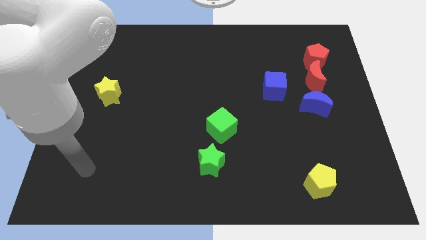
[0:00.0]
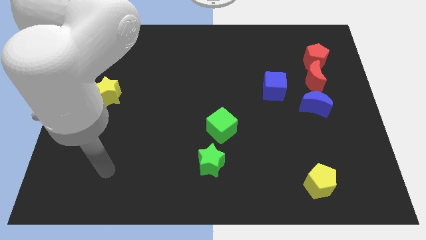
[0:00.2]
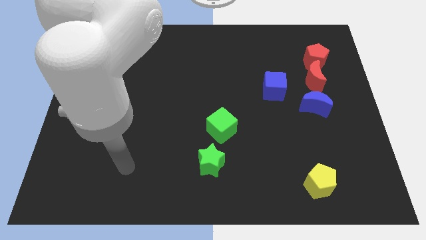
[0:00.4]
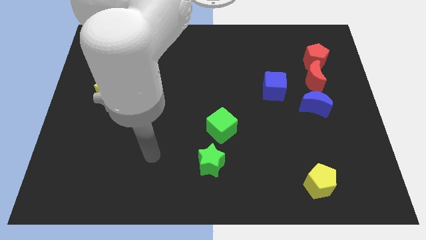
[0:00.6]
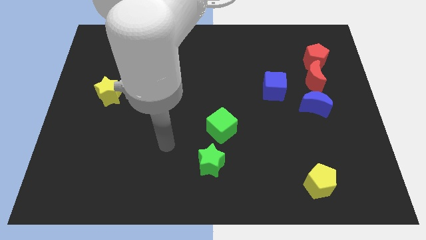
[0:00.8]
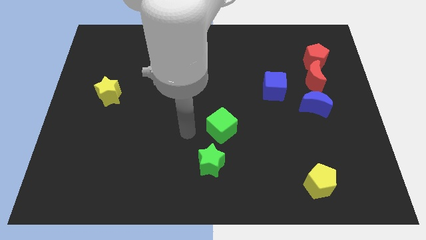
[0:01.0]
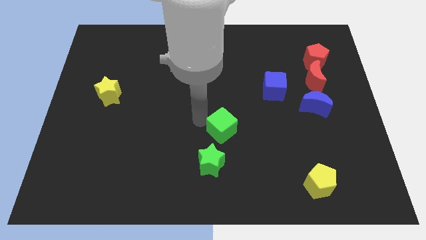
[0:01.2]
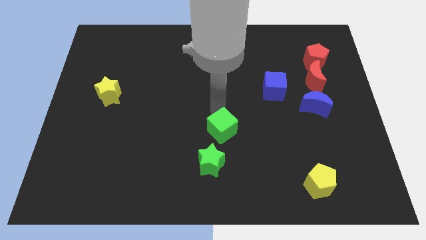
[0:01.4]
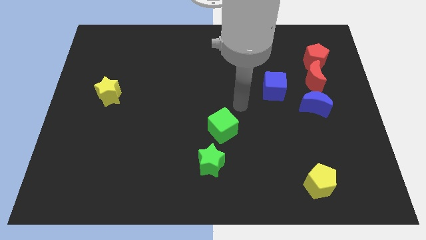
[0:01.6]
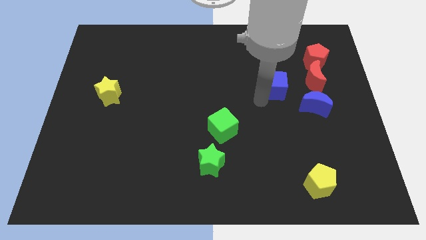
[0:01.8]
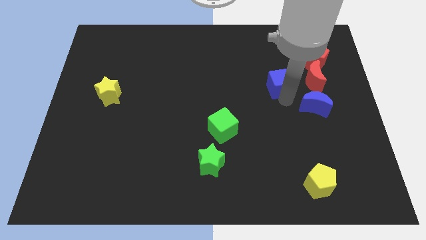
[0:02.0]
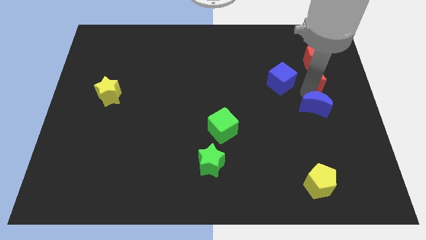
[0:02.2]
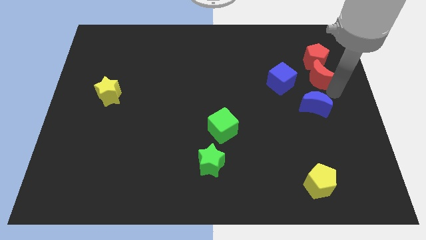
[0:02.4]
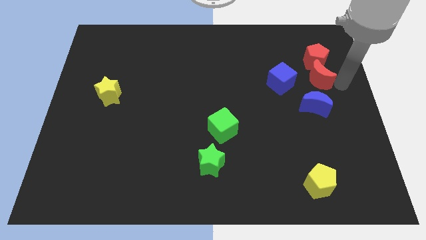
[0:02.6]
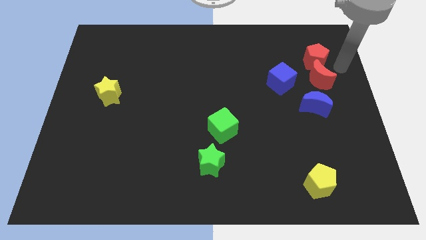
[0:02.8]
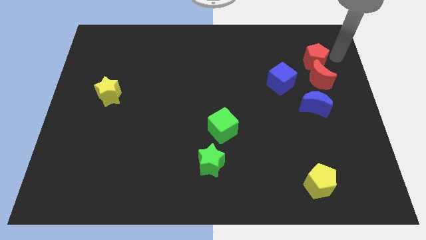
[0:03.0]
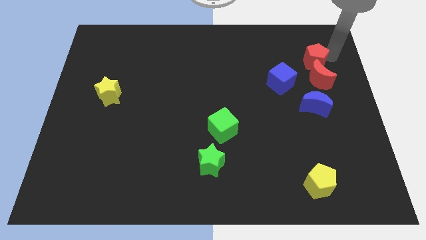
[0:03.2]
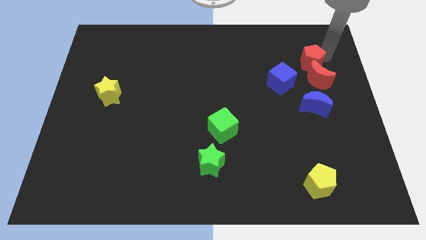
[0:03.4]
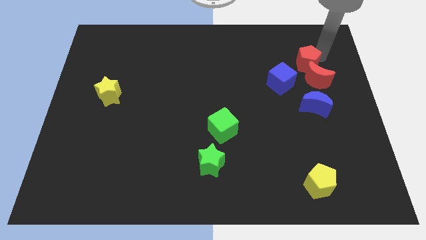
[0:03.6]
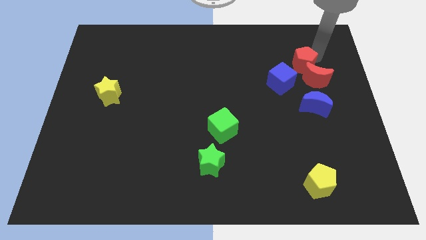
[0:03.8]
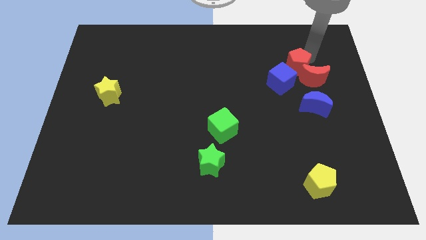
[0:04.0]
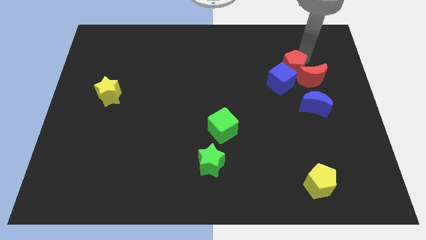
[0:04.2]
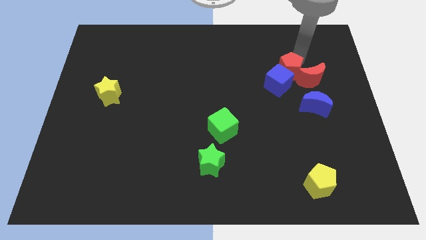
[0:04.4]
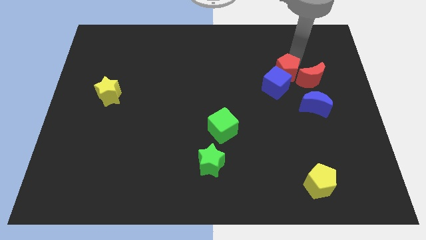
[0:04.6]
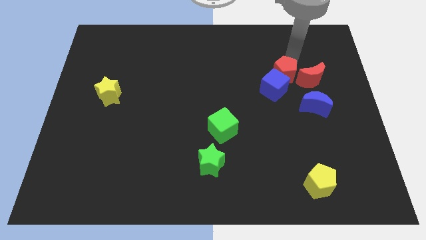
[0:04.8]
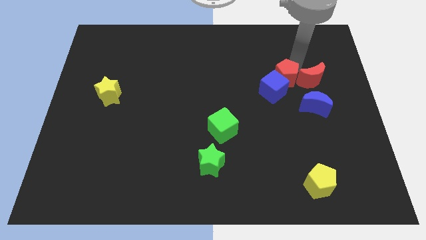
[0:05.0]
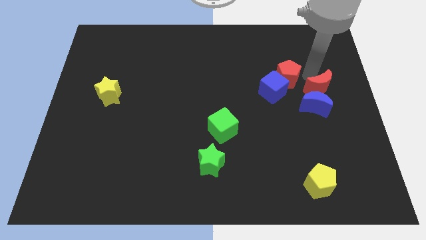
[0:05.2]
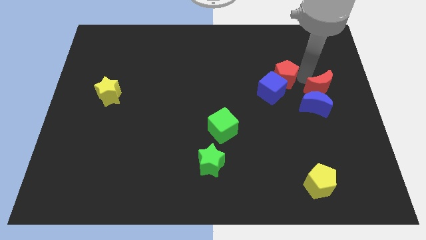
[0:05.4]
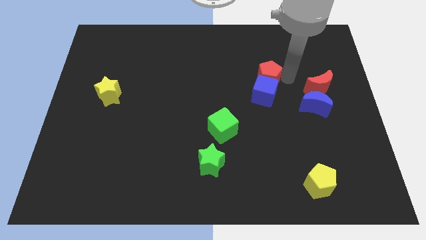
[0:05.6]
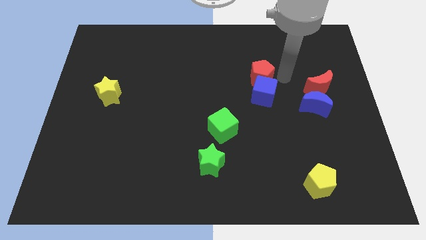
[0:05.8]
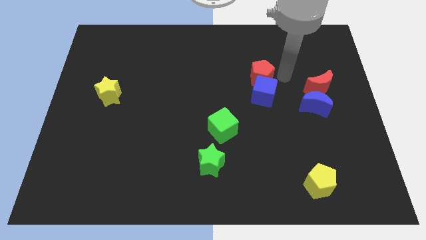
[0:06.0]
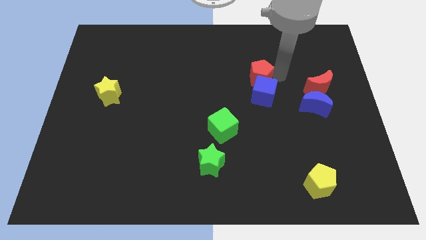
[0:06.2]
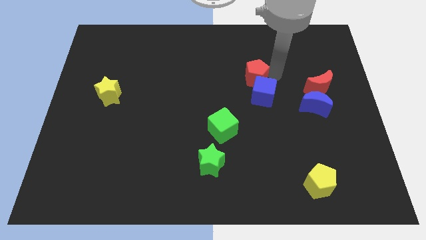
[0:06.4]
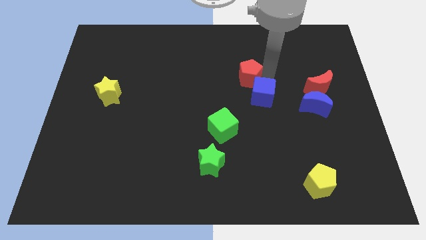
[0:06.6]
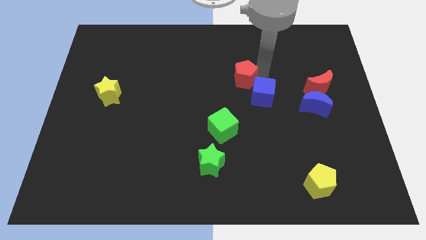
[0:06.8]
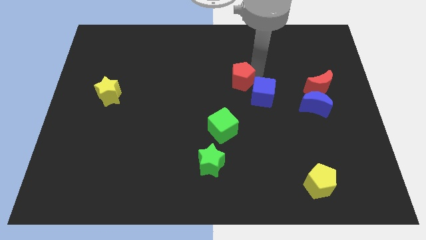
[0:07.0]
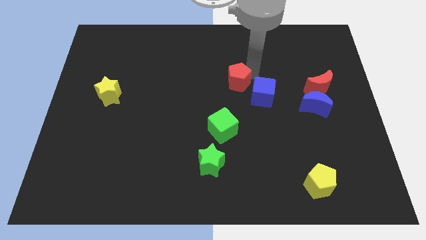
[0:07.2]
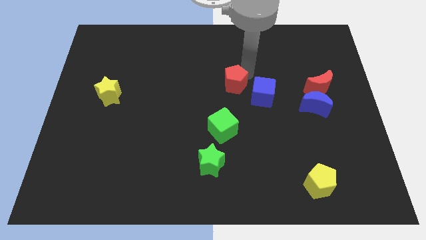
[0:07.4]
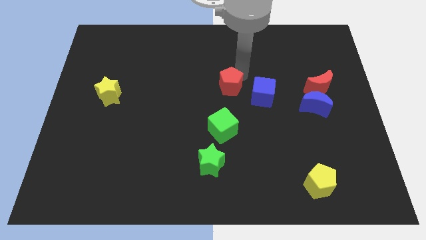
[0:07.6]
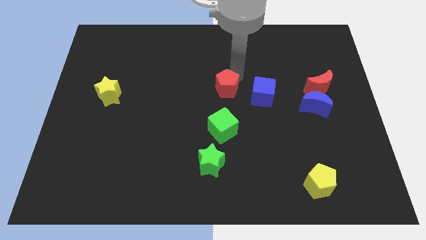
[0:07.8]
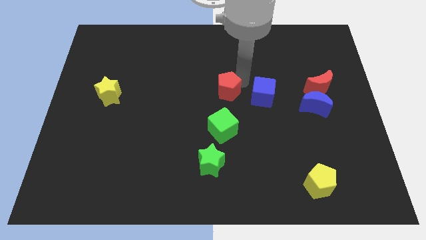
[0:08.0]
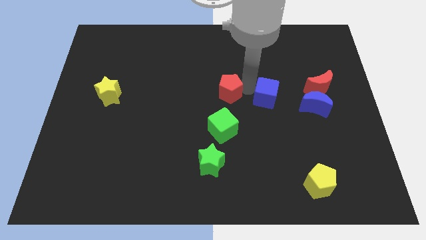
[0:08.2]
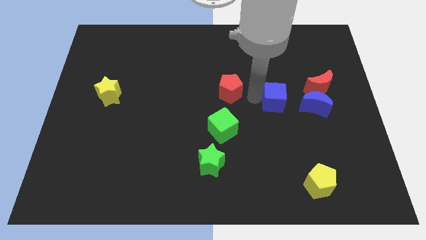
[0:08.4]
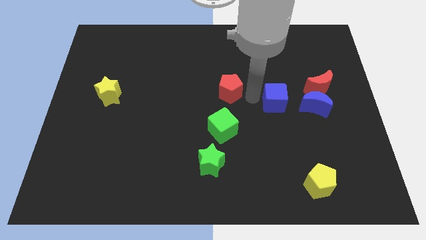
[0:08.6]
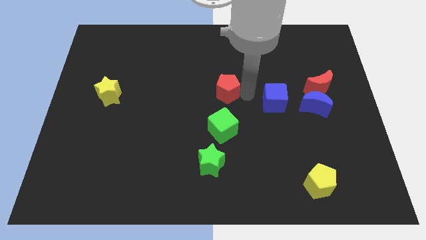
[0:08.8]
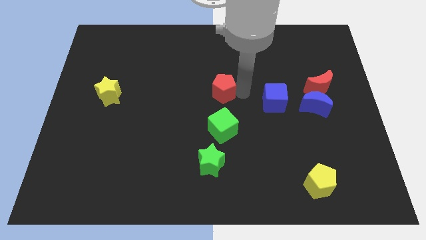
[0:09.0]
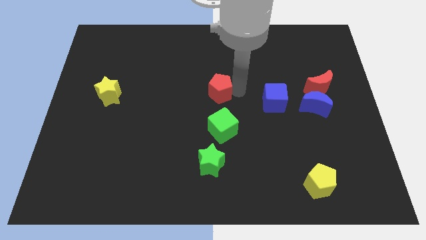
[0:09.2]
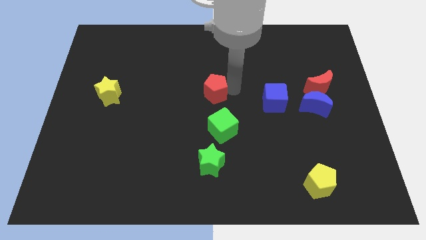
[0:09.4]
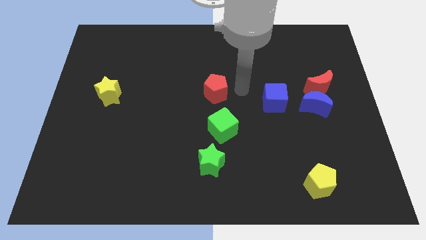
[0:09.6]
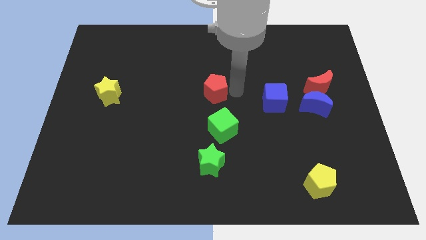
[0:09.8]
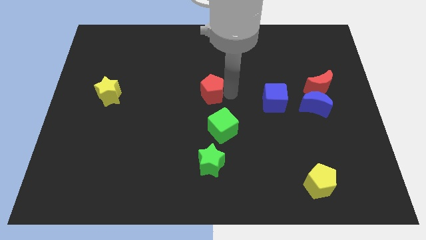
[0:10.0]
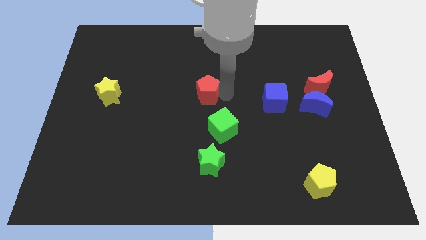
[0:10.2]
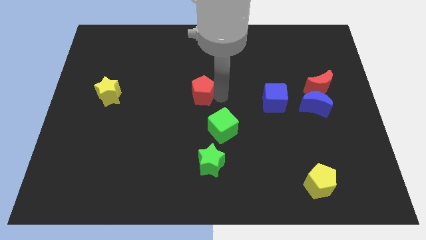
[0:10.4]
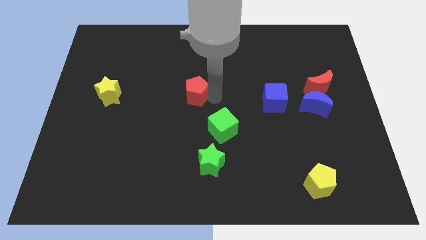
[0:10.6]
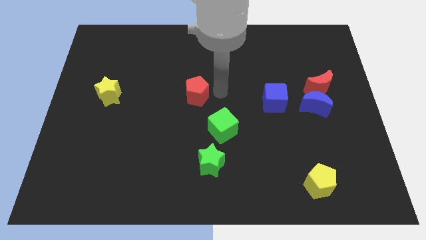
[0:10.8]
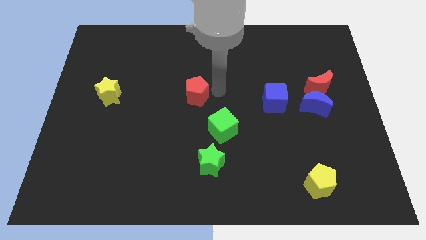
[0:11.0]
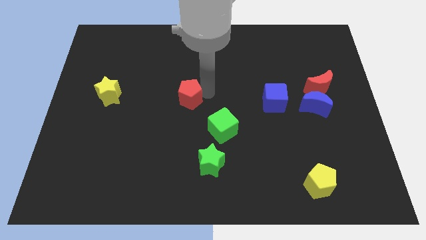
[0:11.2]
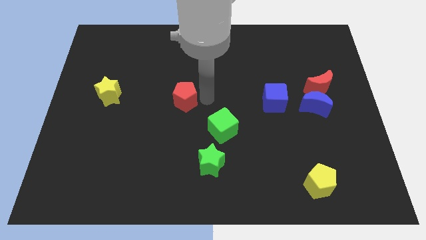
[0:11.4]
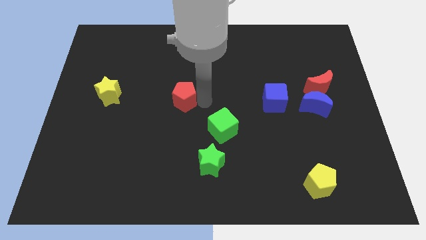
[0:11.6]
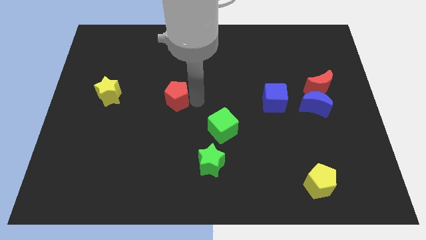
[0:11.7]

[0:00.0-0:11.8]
slide the red pentagon right of the yellow star

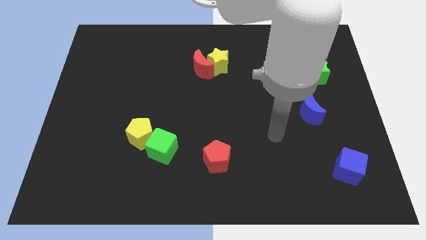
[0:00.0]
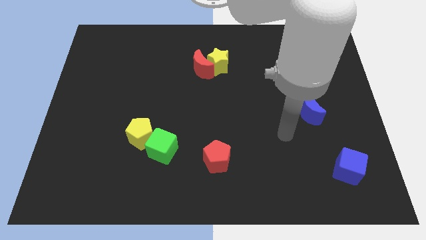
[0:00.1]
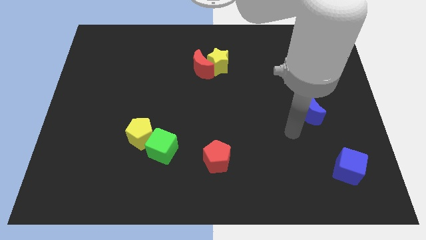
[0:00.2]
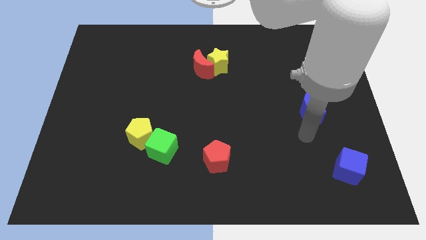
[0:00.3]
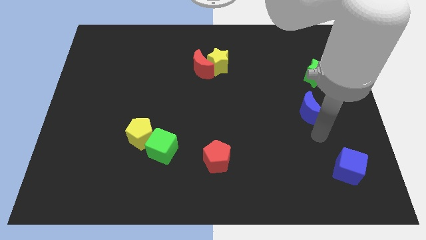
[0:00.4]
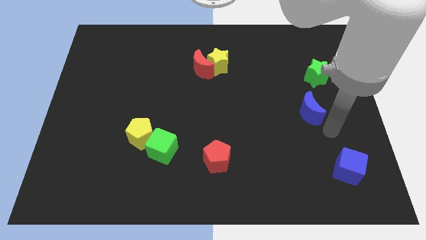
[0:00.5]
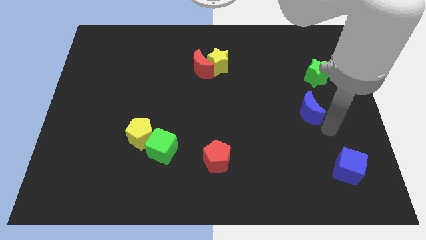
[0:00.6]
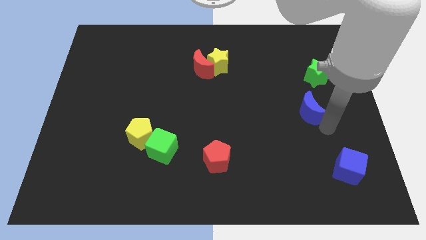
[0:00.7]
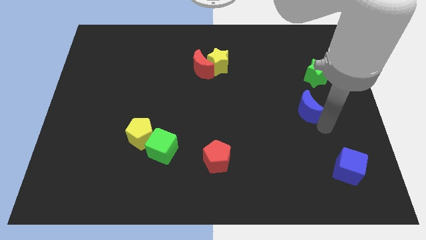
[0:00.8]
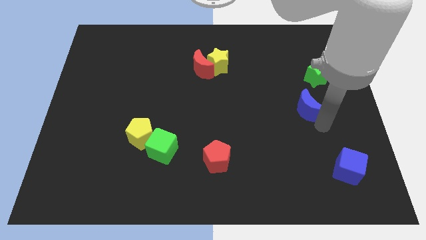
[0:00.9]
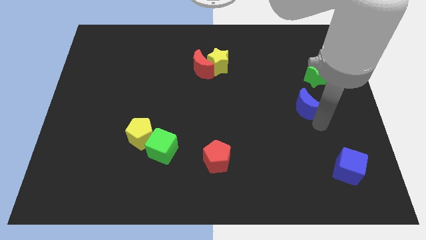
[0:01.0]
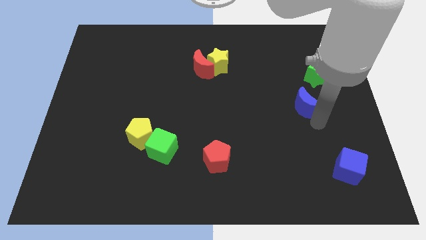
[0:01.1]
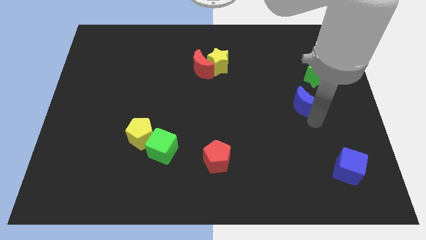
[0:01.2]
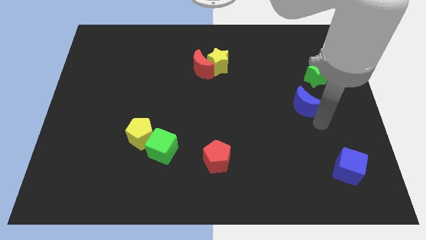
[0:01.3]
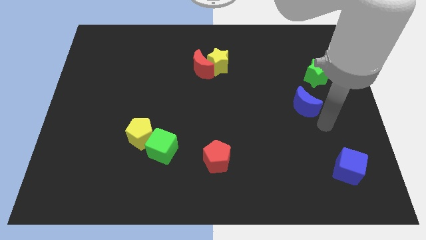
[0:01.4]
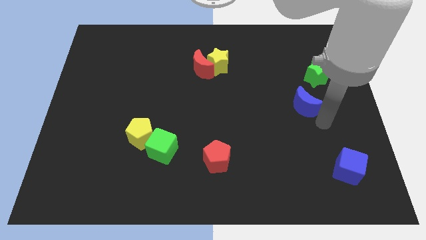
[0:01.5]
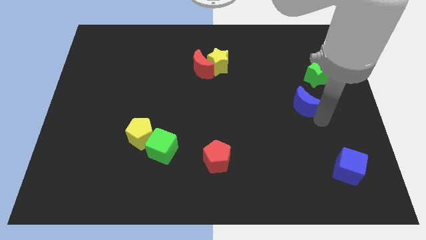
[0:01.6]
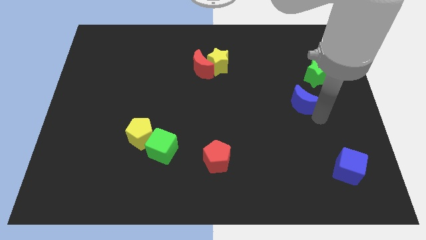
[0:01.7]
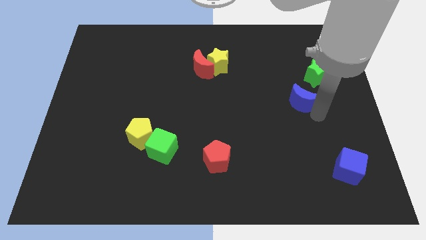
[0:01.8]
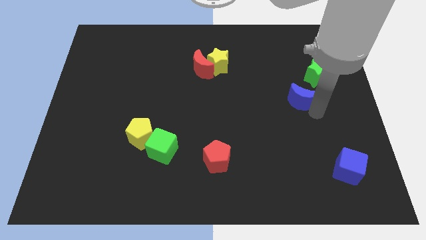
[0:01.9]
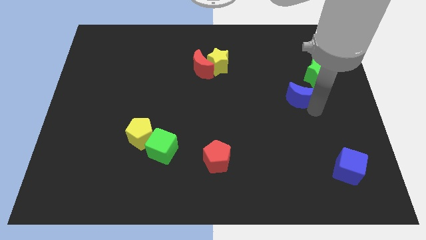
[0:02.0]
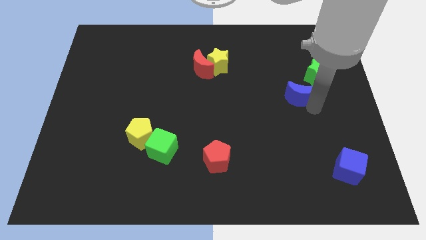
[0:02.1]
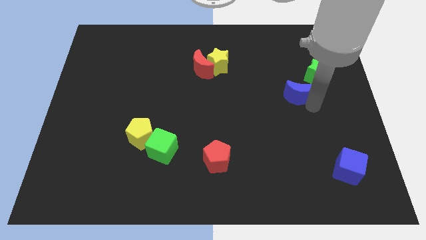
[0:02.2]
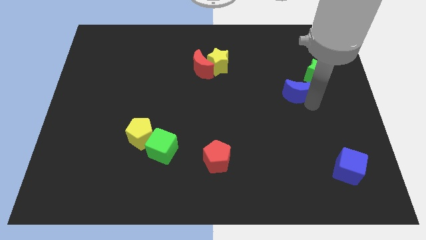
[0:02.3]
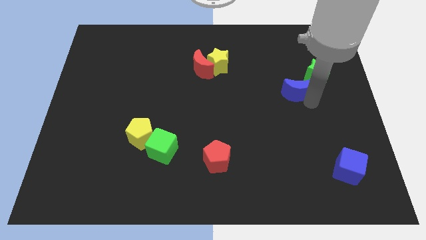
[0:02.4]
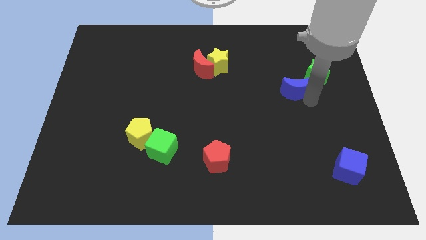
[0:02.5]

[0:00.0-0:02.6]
move the blue moon just left of the green star
